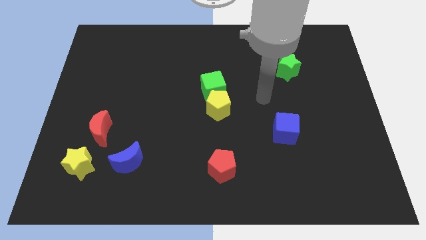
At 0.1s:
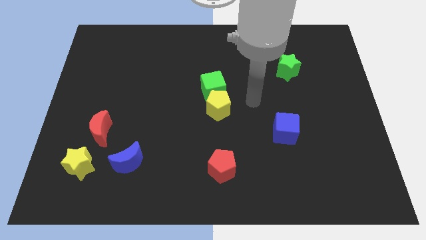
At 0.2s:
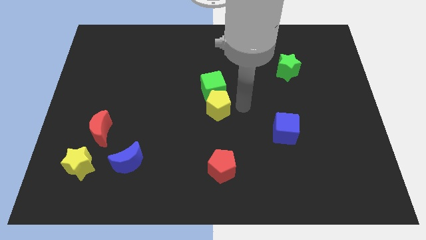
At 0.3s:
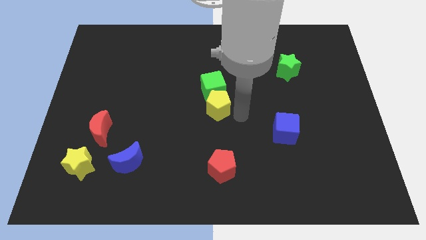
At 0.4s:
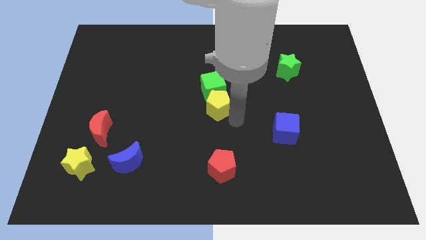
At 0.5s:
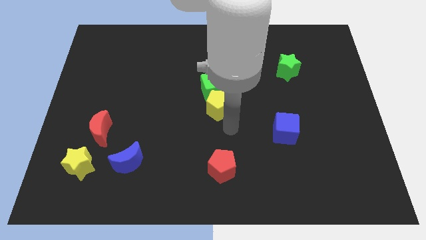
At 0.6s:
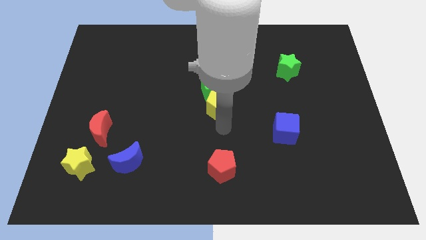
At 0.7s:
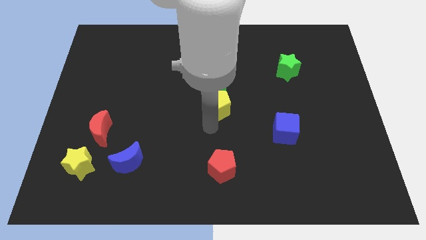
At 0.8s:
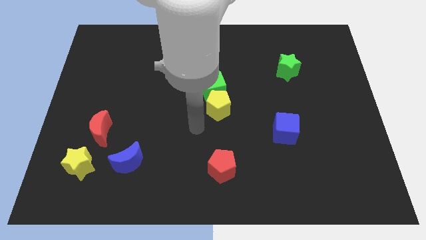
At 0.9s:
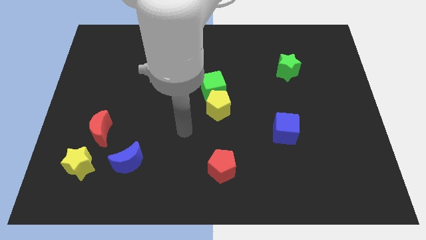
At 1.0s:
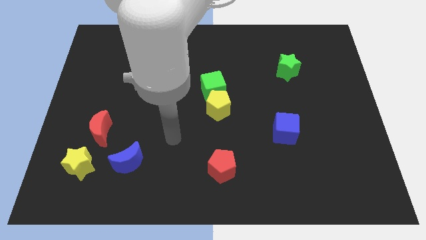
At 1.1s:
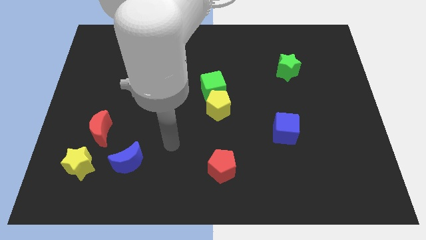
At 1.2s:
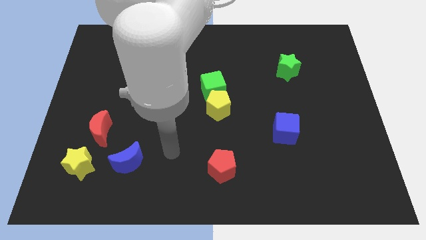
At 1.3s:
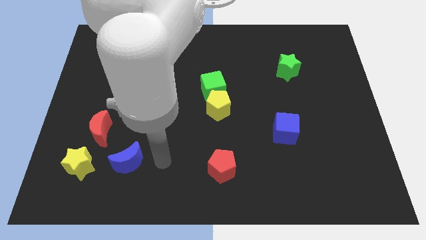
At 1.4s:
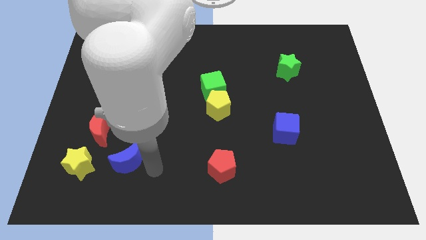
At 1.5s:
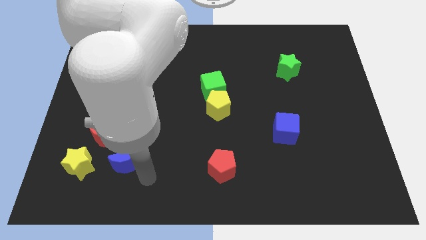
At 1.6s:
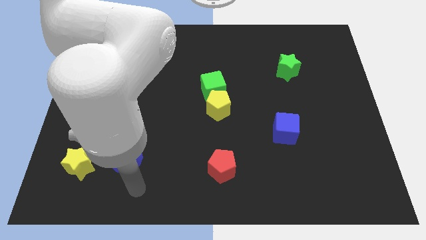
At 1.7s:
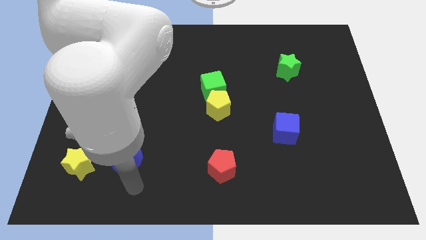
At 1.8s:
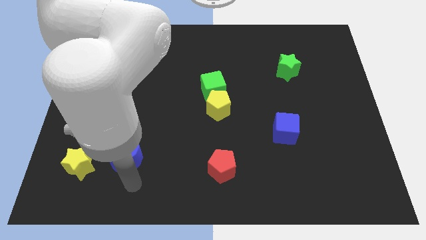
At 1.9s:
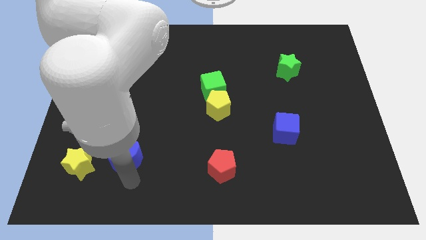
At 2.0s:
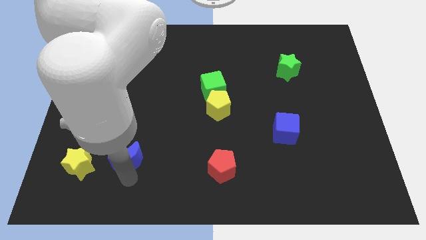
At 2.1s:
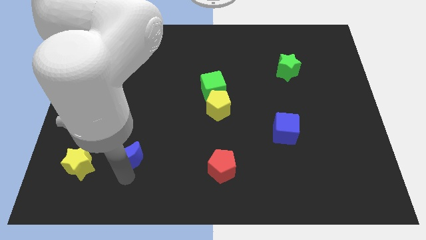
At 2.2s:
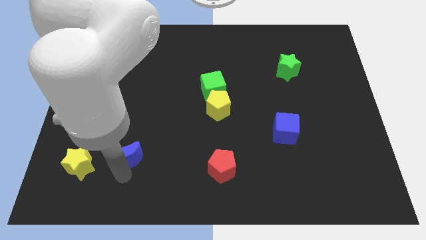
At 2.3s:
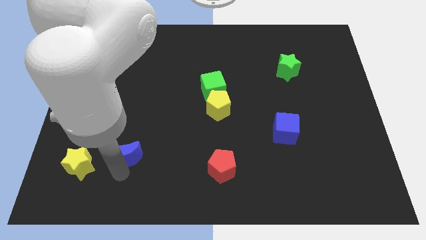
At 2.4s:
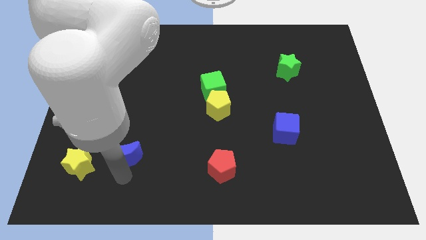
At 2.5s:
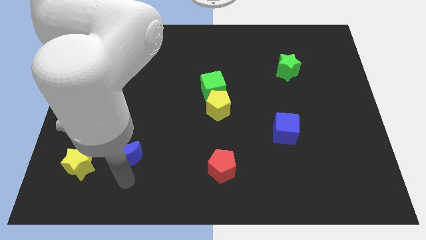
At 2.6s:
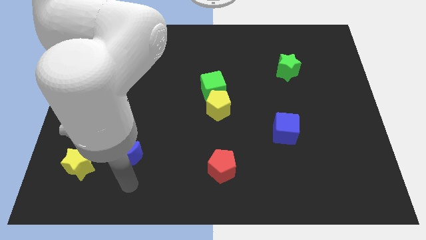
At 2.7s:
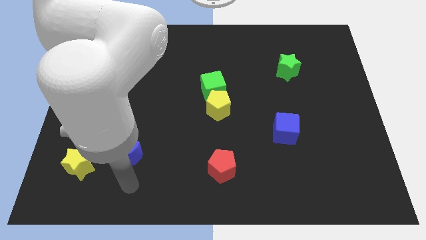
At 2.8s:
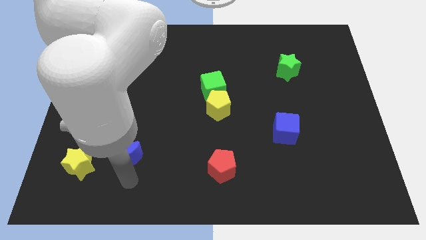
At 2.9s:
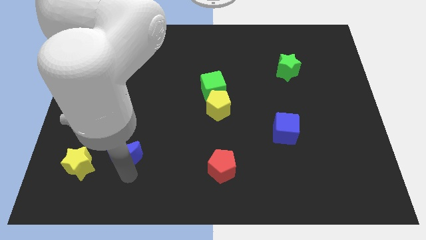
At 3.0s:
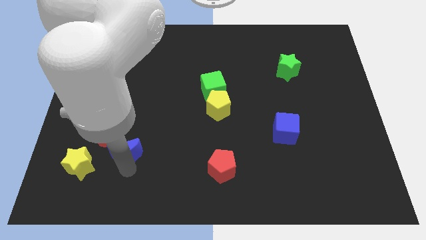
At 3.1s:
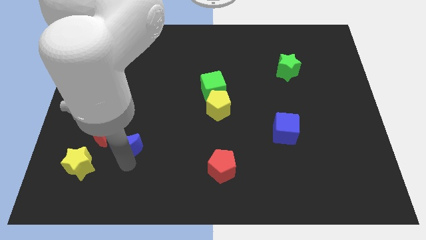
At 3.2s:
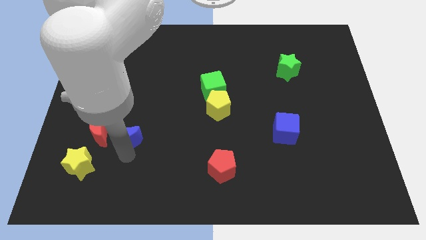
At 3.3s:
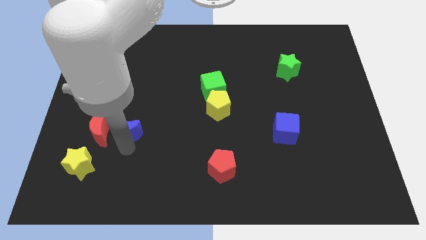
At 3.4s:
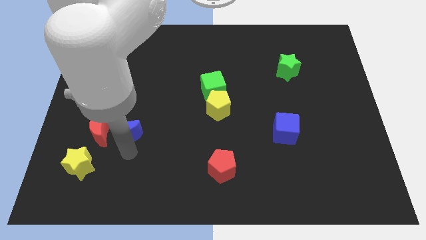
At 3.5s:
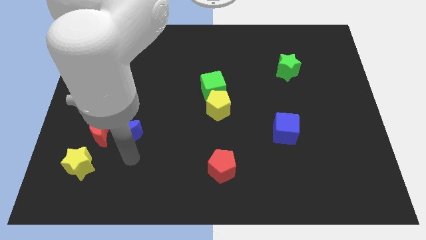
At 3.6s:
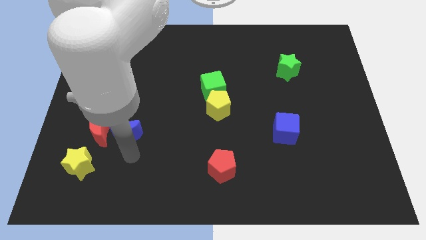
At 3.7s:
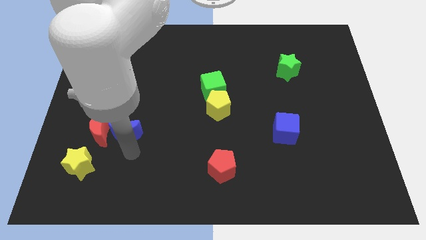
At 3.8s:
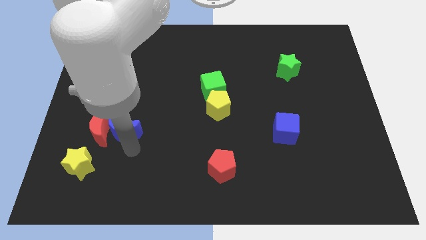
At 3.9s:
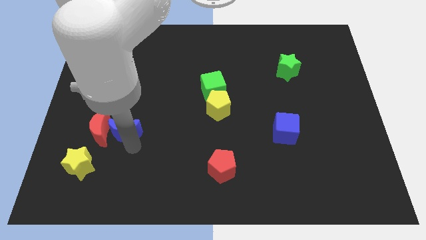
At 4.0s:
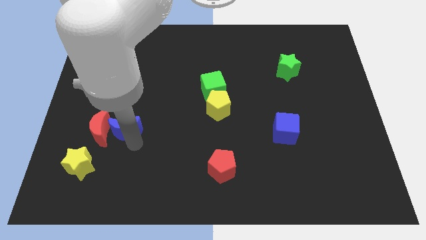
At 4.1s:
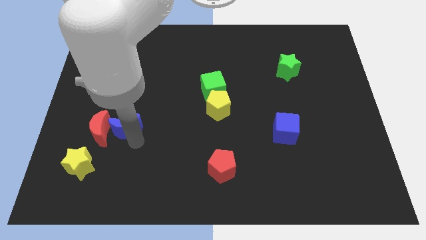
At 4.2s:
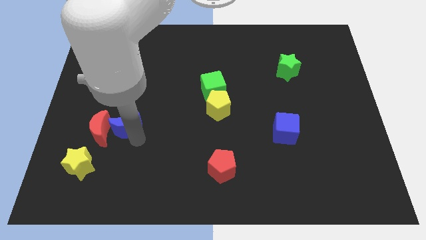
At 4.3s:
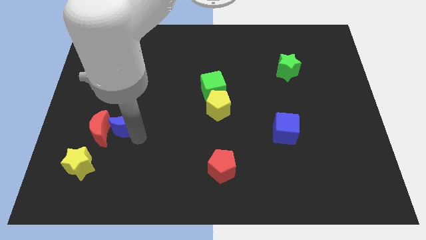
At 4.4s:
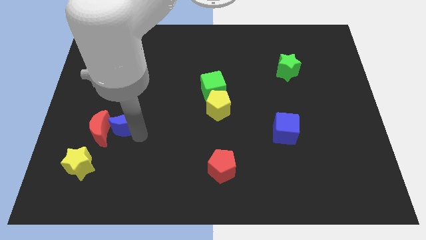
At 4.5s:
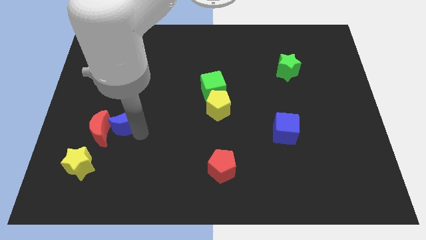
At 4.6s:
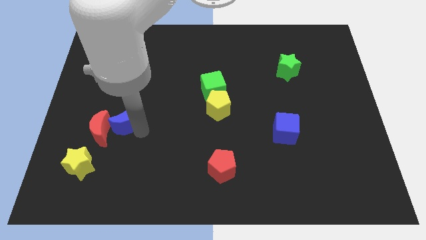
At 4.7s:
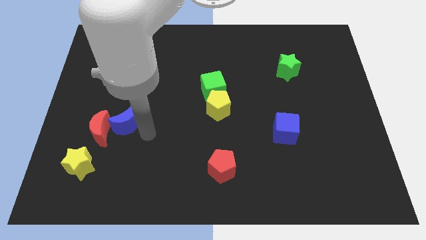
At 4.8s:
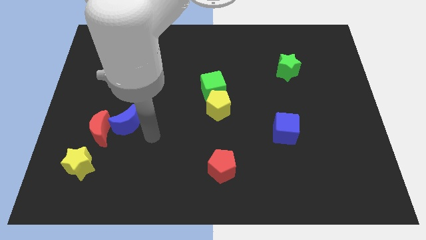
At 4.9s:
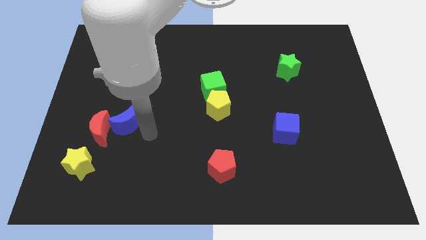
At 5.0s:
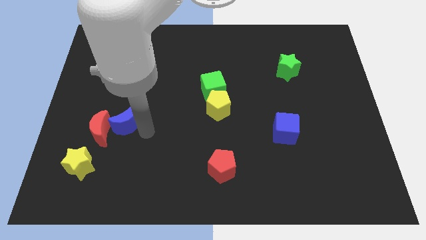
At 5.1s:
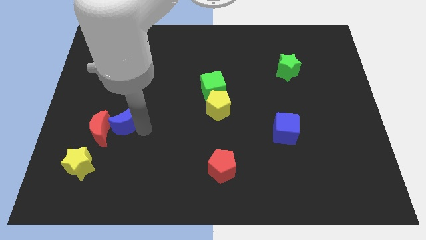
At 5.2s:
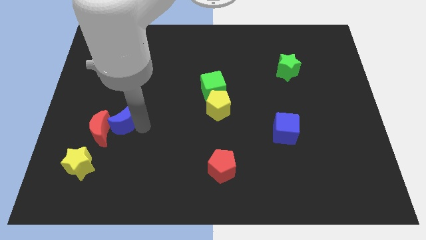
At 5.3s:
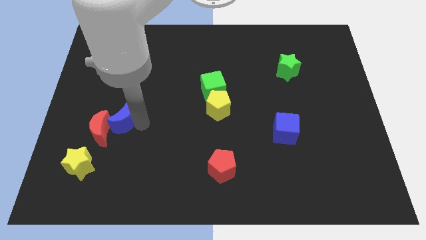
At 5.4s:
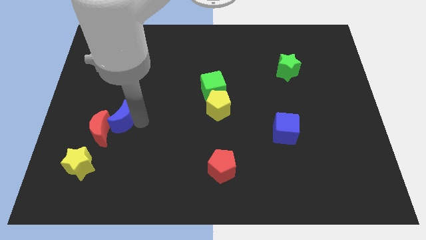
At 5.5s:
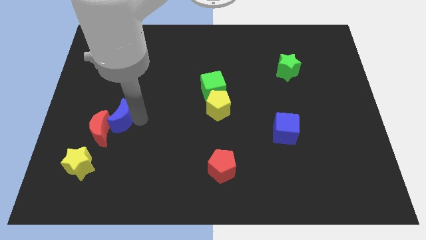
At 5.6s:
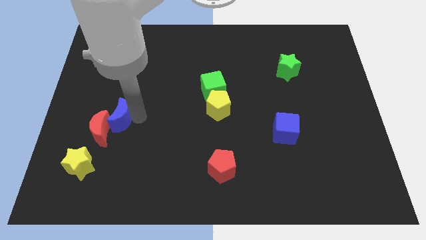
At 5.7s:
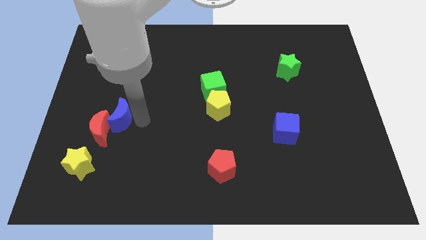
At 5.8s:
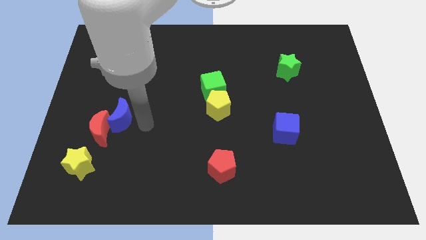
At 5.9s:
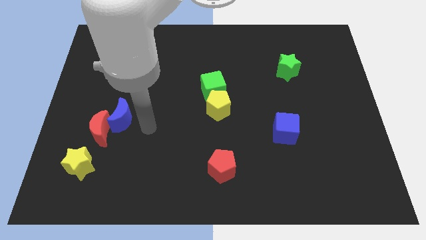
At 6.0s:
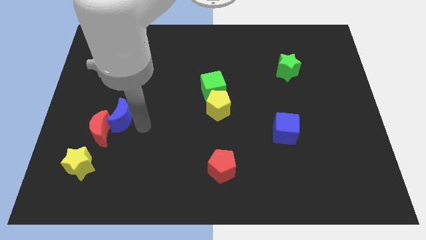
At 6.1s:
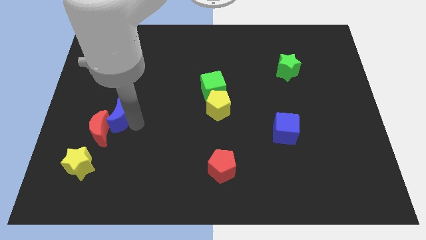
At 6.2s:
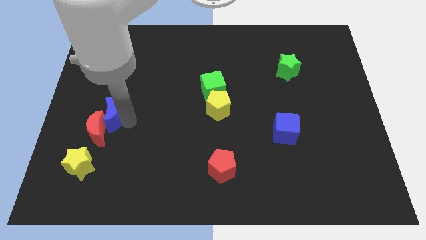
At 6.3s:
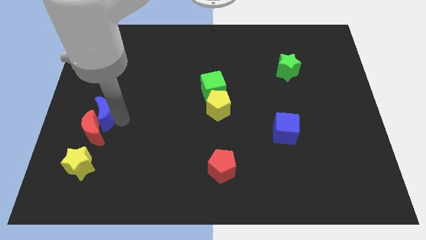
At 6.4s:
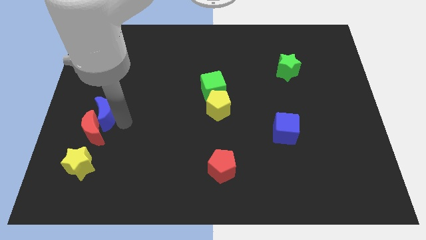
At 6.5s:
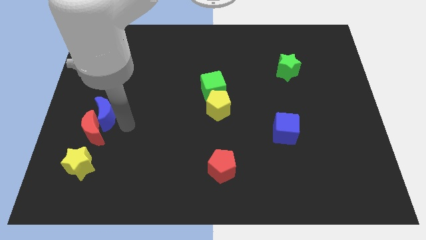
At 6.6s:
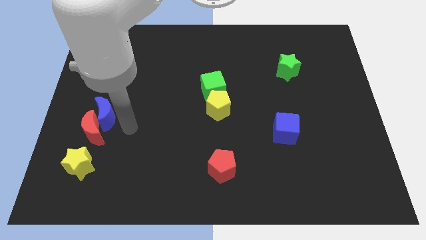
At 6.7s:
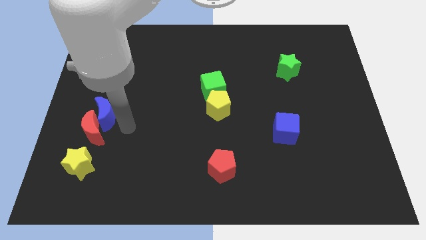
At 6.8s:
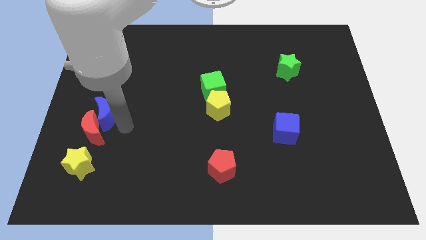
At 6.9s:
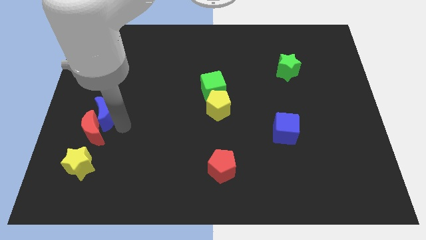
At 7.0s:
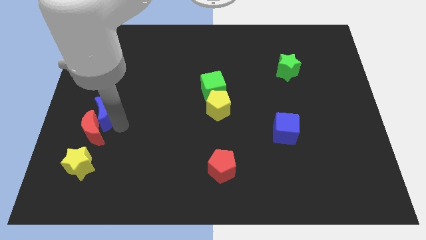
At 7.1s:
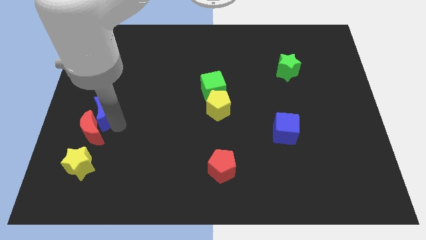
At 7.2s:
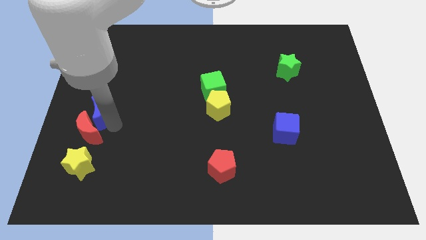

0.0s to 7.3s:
put the blue moon to the left side
